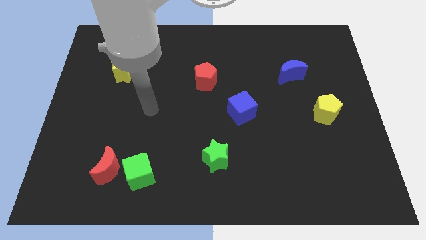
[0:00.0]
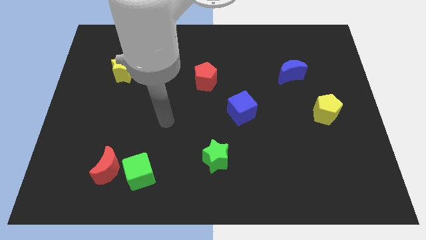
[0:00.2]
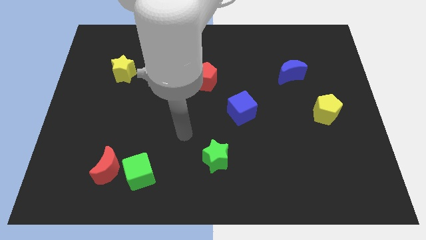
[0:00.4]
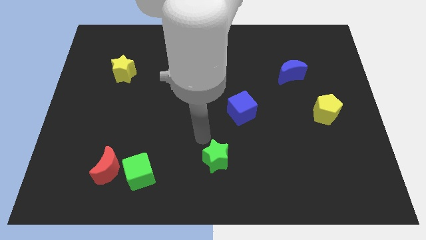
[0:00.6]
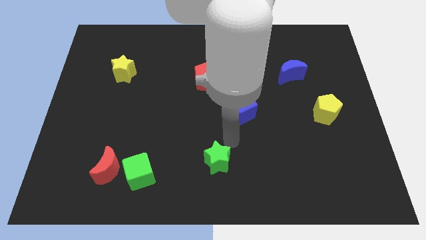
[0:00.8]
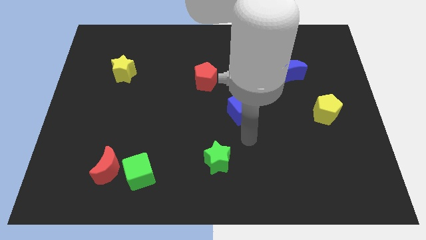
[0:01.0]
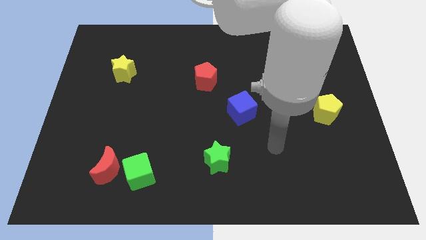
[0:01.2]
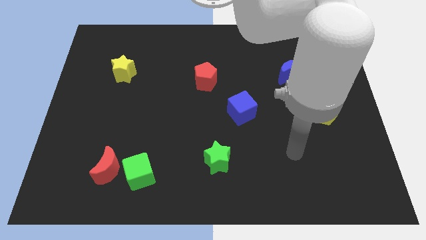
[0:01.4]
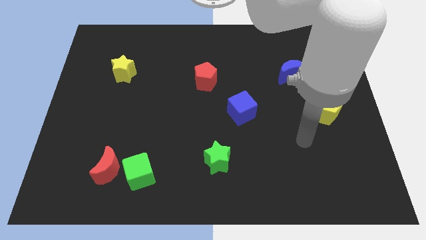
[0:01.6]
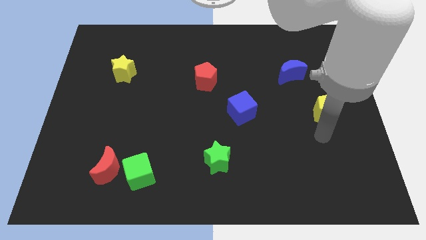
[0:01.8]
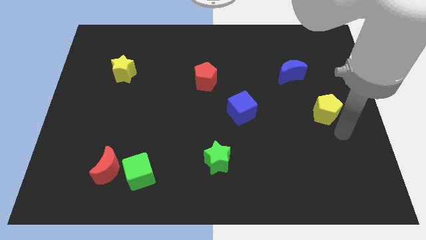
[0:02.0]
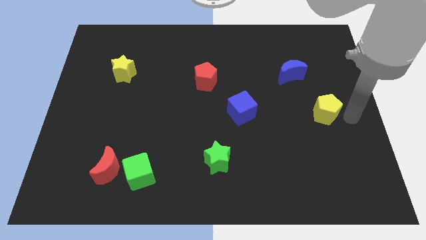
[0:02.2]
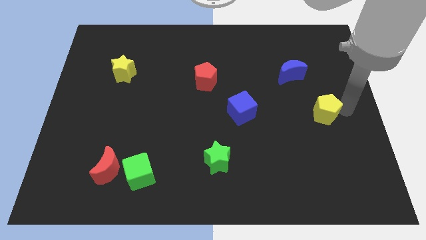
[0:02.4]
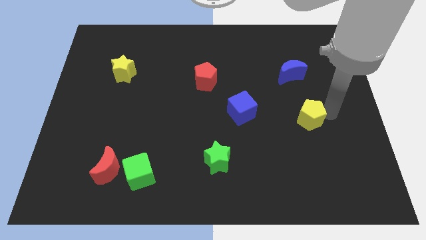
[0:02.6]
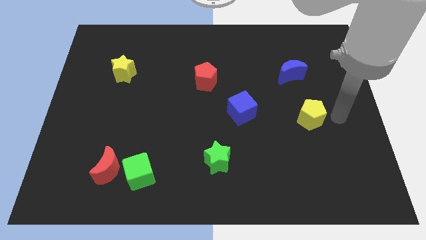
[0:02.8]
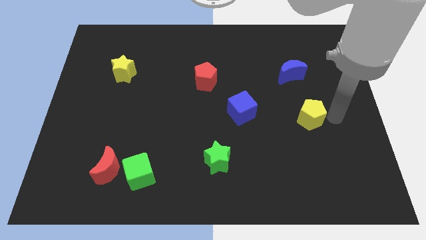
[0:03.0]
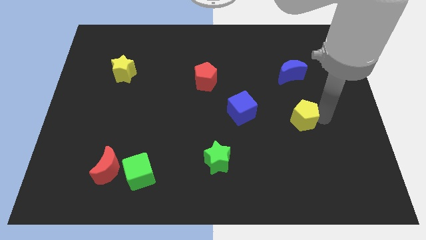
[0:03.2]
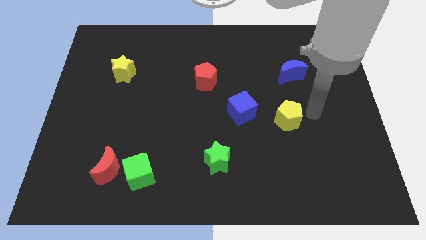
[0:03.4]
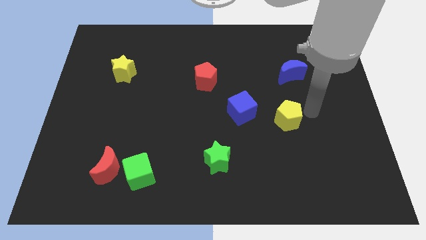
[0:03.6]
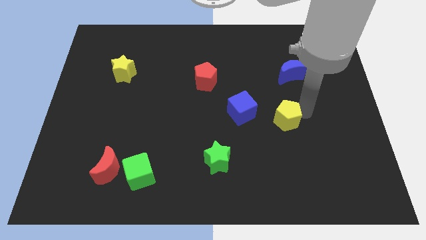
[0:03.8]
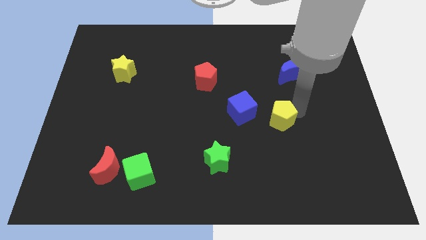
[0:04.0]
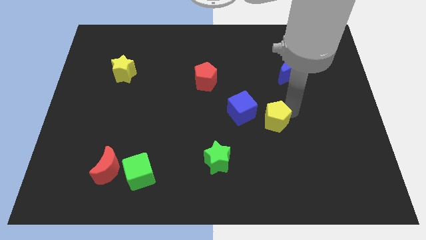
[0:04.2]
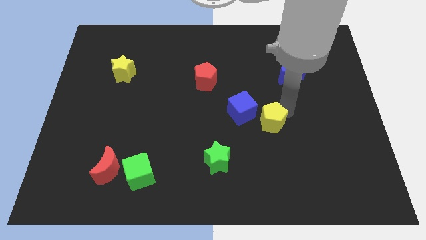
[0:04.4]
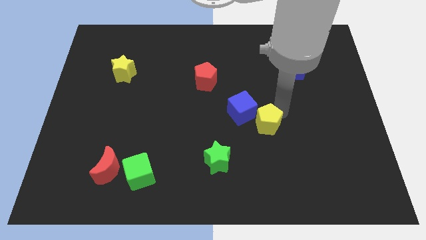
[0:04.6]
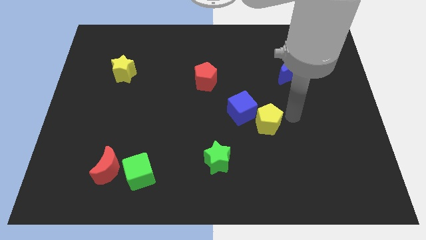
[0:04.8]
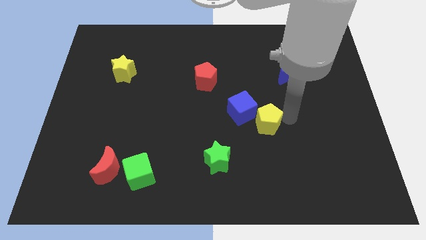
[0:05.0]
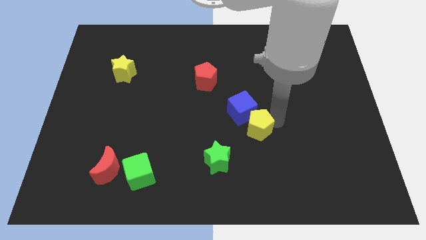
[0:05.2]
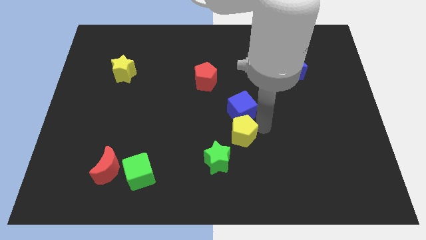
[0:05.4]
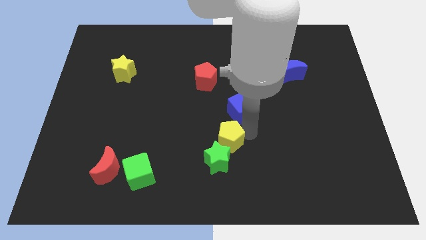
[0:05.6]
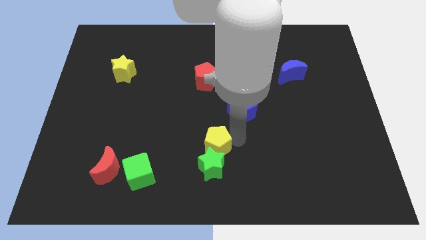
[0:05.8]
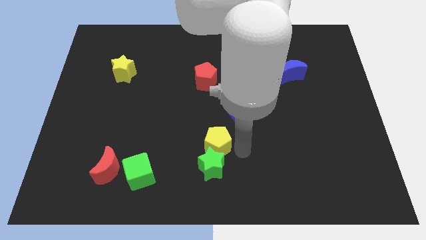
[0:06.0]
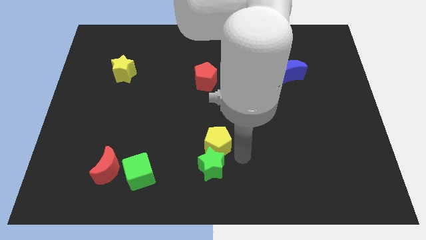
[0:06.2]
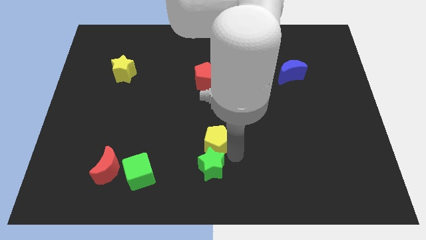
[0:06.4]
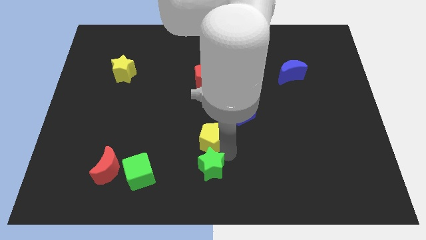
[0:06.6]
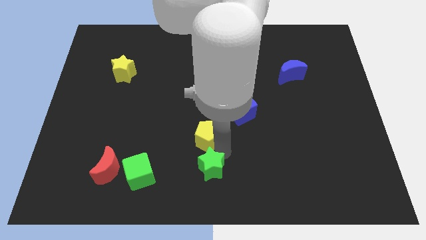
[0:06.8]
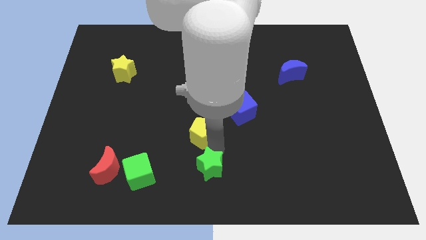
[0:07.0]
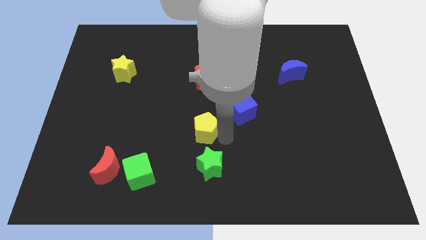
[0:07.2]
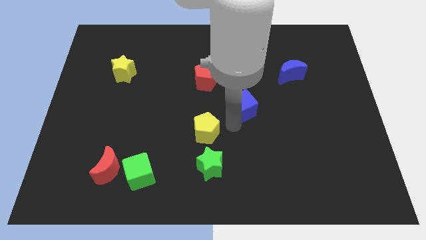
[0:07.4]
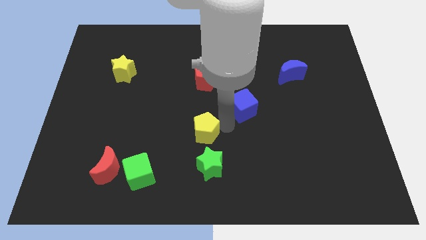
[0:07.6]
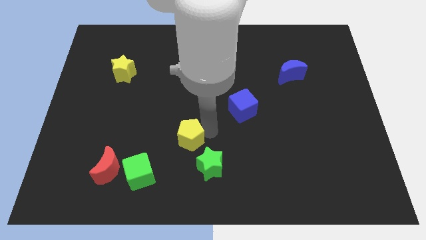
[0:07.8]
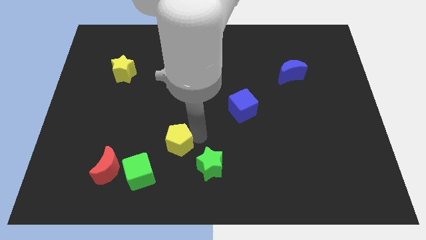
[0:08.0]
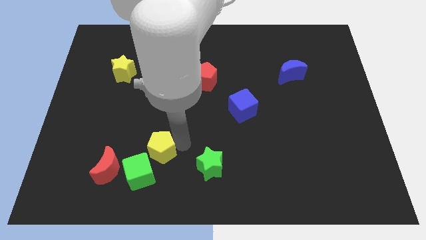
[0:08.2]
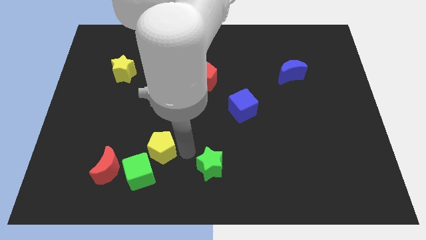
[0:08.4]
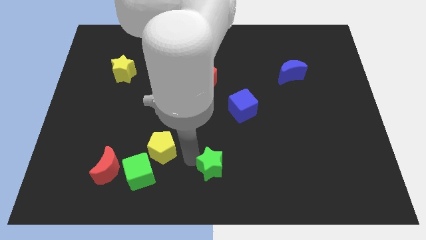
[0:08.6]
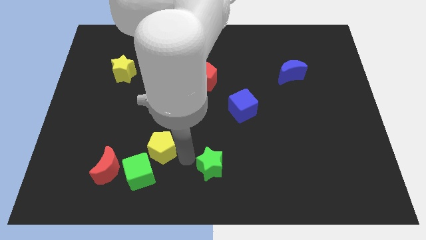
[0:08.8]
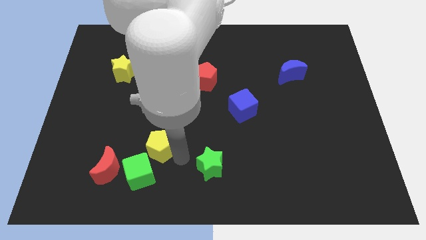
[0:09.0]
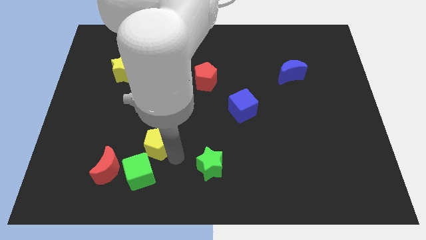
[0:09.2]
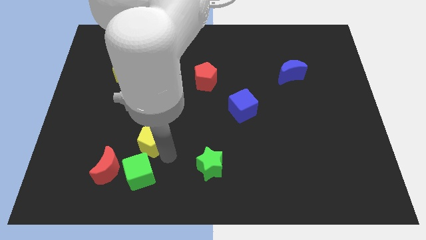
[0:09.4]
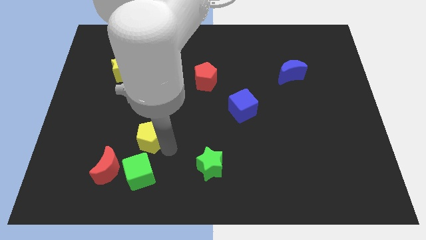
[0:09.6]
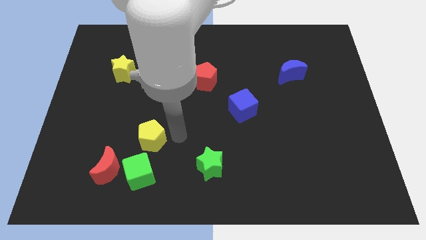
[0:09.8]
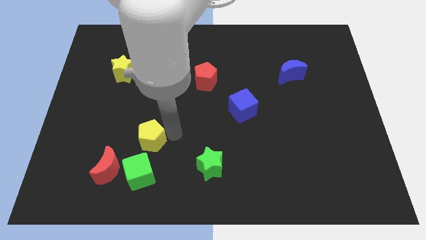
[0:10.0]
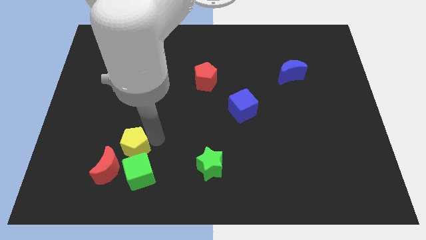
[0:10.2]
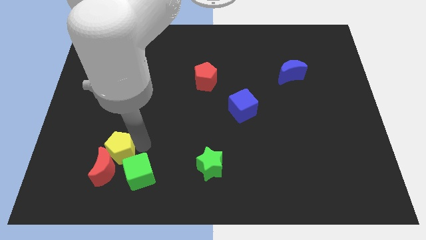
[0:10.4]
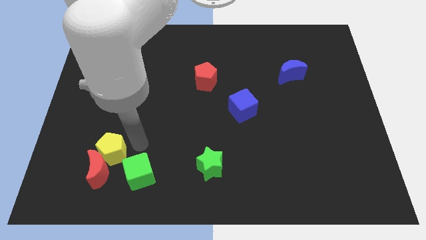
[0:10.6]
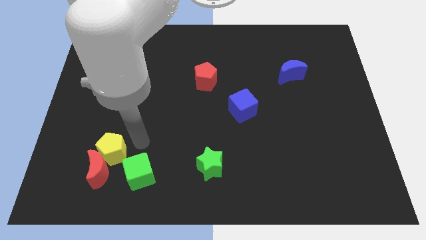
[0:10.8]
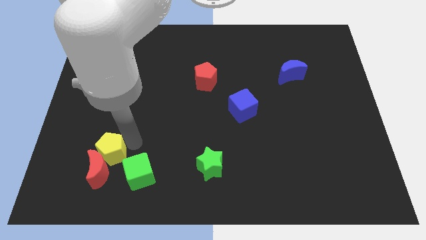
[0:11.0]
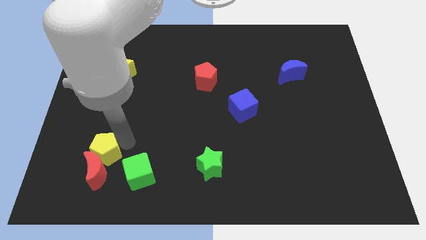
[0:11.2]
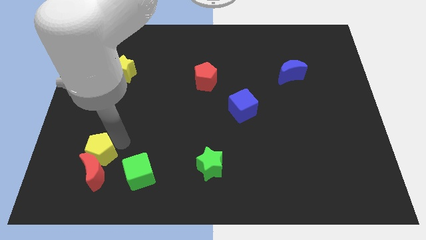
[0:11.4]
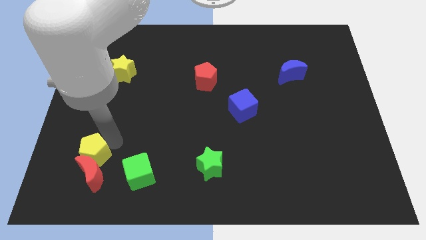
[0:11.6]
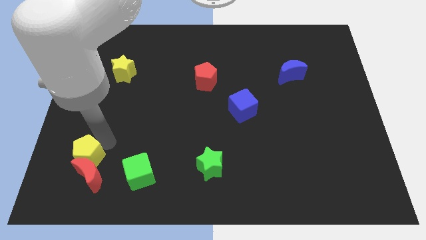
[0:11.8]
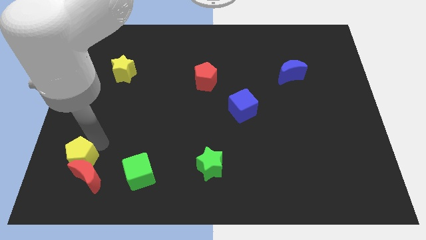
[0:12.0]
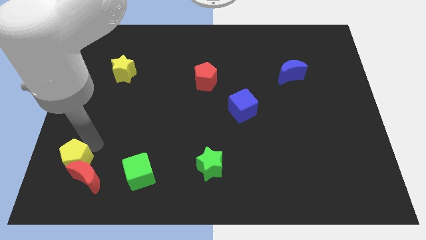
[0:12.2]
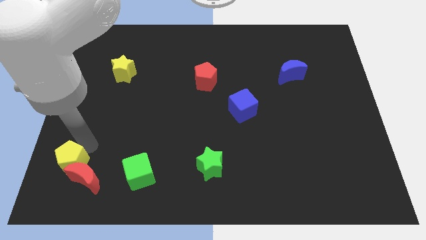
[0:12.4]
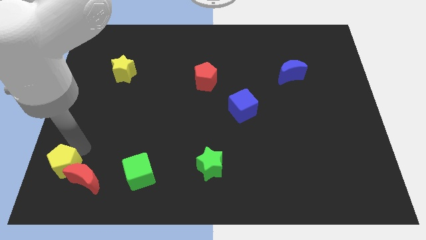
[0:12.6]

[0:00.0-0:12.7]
slide the yellow pentagon to the bottom left of the board
